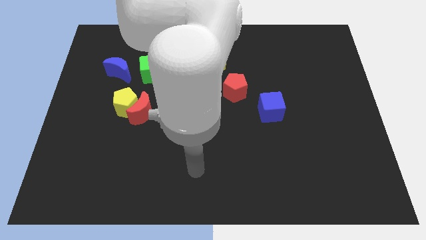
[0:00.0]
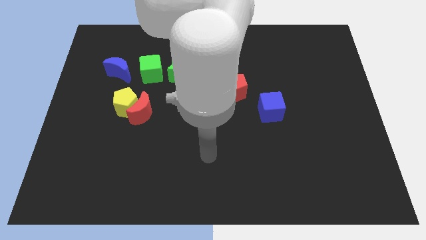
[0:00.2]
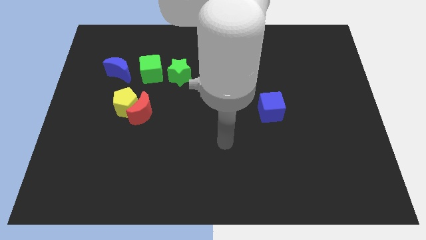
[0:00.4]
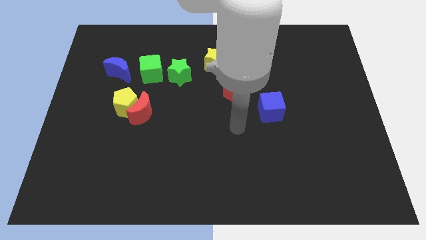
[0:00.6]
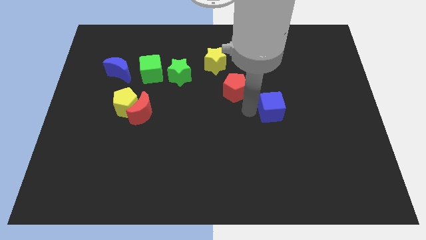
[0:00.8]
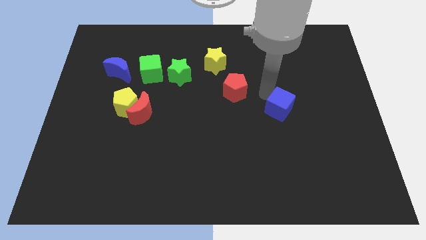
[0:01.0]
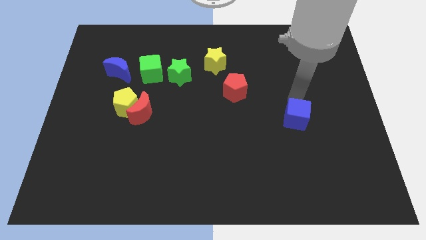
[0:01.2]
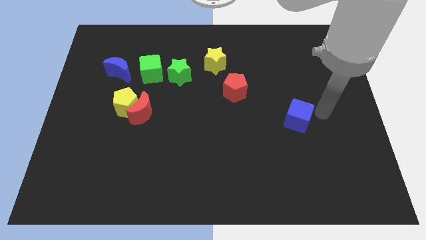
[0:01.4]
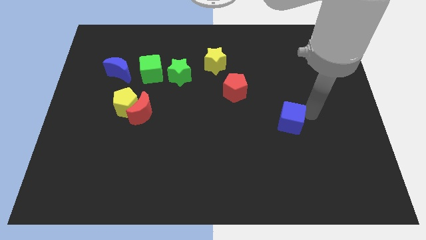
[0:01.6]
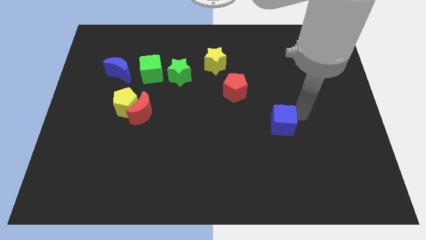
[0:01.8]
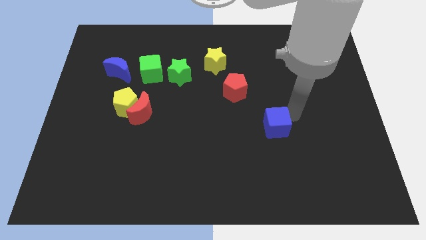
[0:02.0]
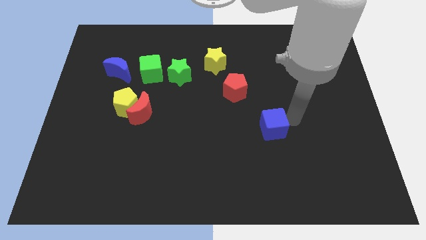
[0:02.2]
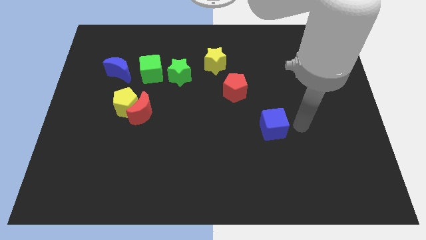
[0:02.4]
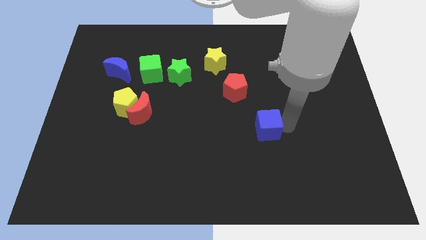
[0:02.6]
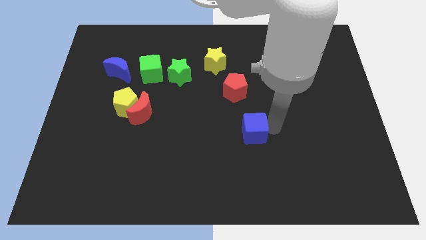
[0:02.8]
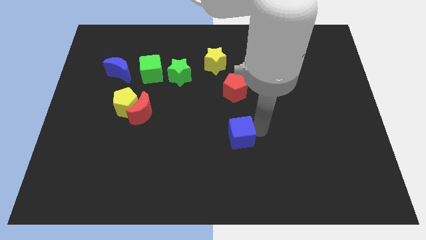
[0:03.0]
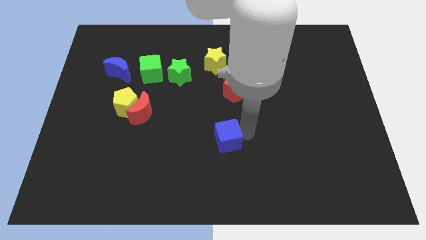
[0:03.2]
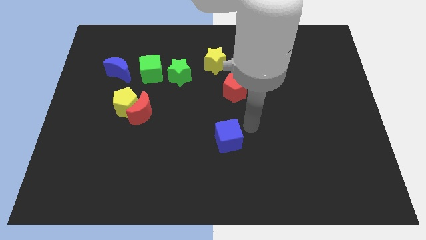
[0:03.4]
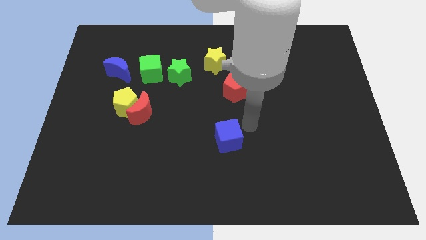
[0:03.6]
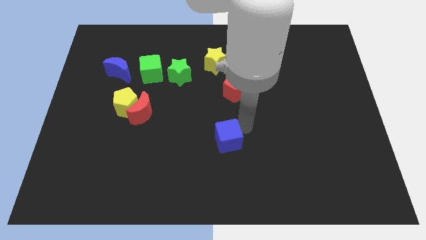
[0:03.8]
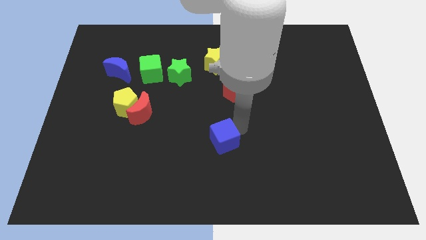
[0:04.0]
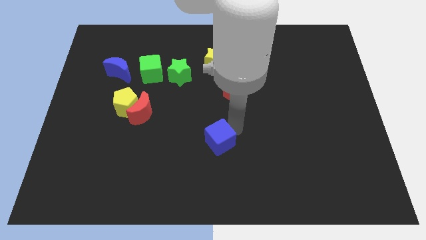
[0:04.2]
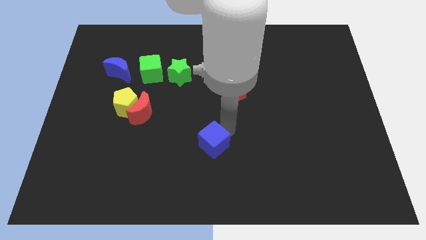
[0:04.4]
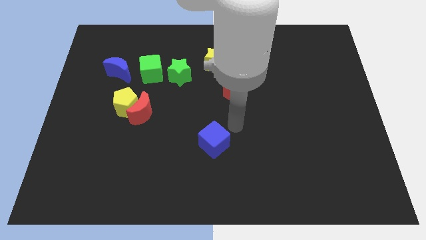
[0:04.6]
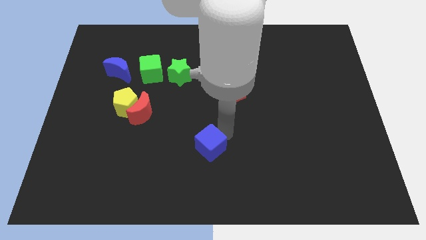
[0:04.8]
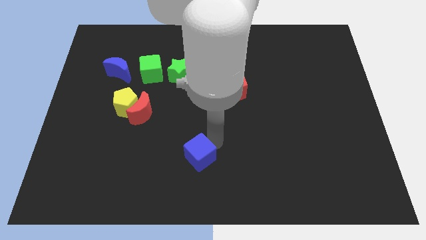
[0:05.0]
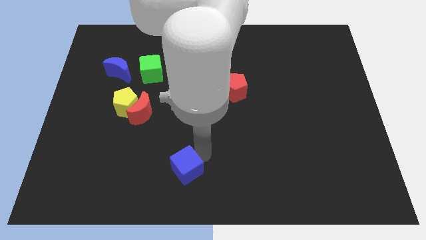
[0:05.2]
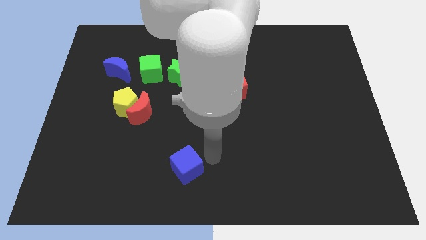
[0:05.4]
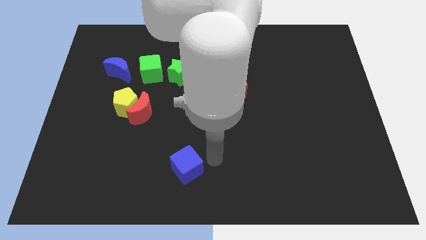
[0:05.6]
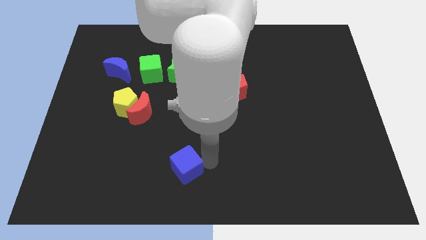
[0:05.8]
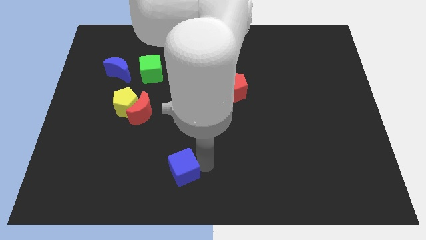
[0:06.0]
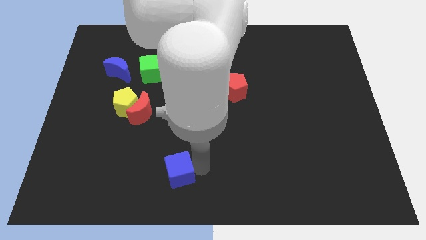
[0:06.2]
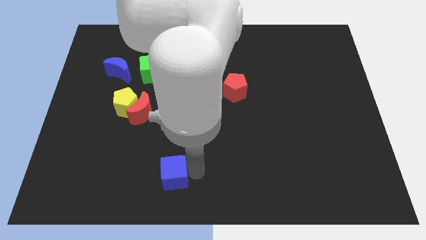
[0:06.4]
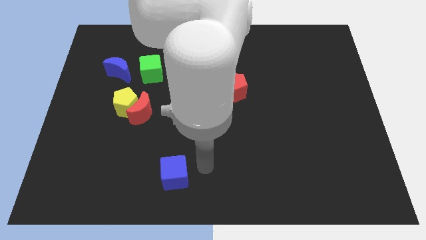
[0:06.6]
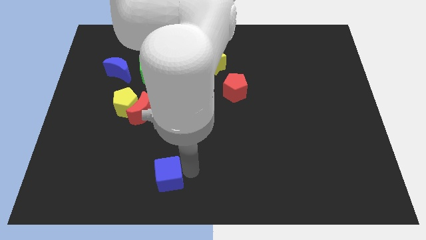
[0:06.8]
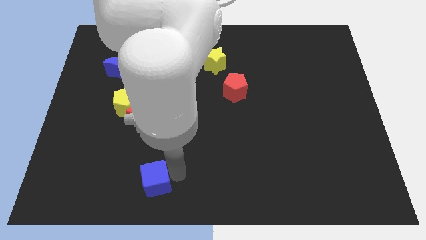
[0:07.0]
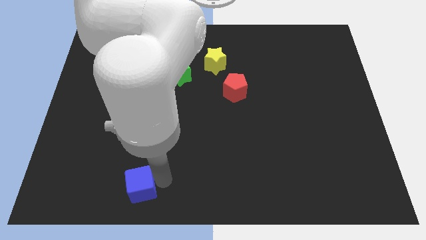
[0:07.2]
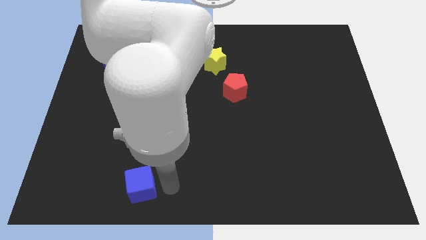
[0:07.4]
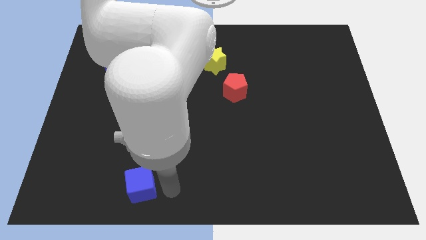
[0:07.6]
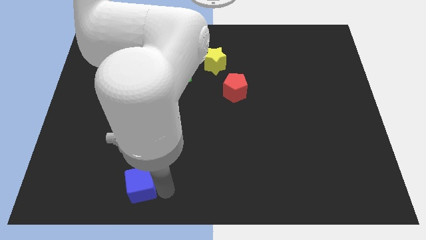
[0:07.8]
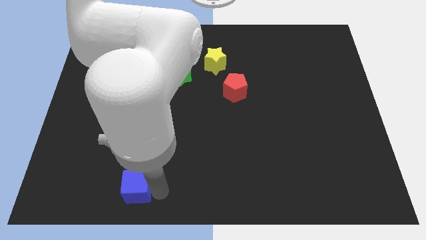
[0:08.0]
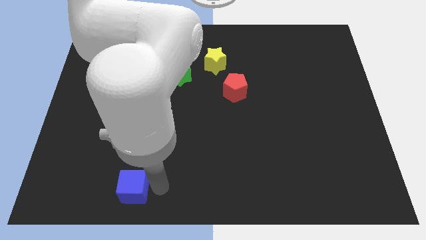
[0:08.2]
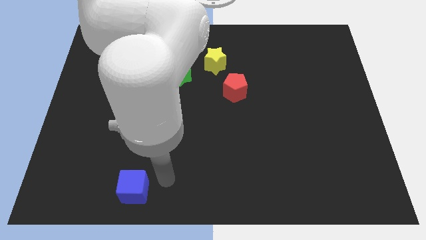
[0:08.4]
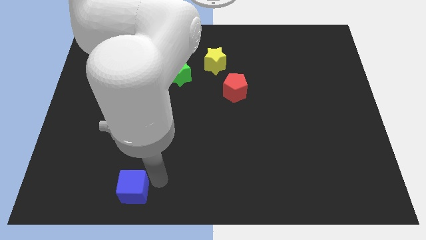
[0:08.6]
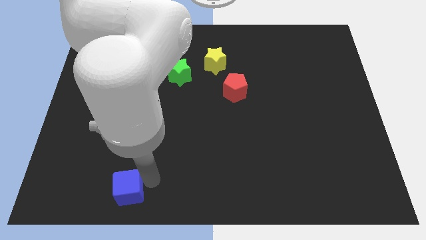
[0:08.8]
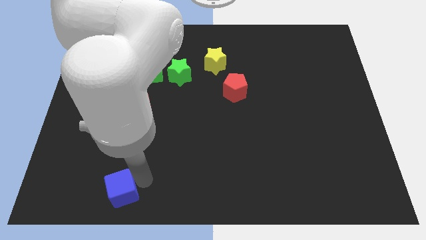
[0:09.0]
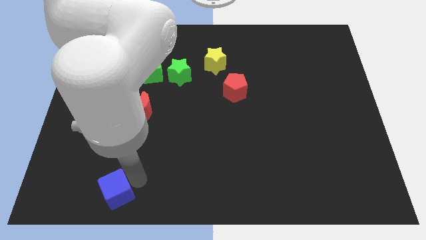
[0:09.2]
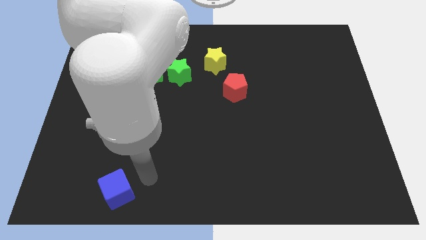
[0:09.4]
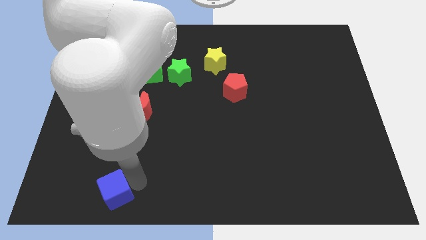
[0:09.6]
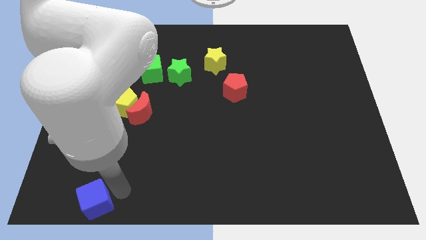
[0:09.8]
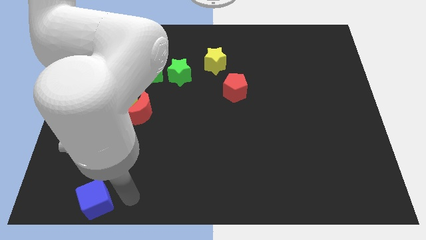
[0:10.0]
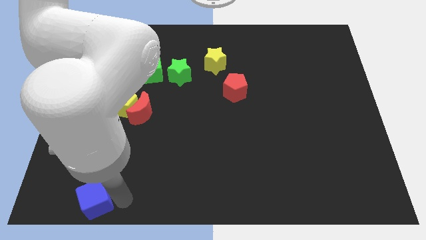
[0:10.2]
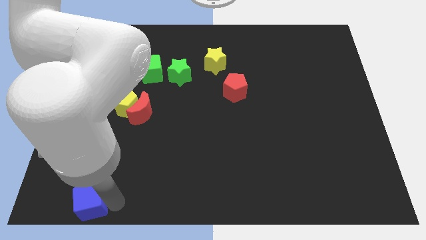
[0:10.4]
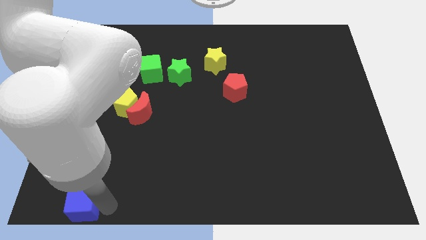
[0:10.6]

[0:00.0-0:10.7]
slide the blue cube to the lower left corner
